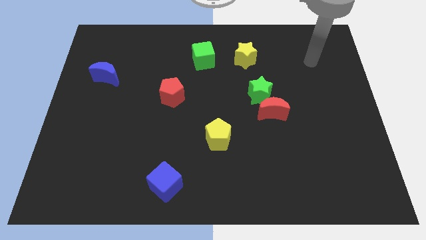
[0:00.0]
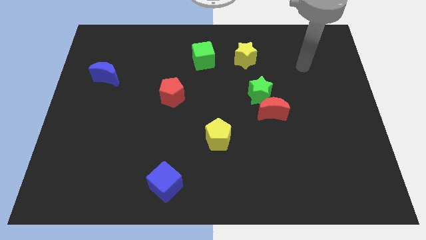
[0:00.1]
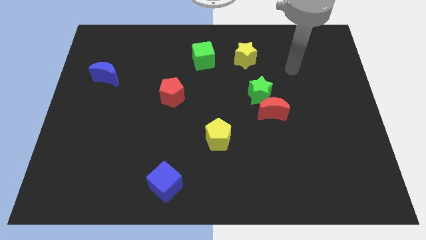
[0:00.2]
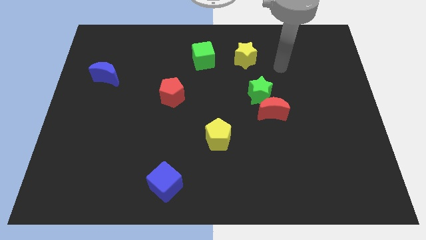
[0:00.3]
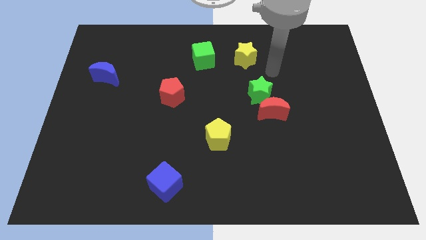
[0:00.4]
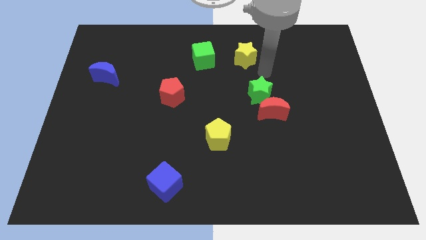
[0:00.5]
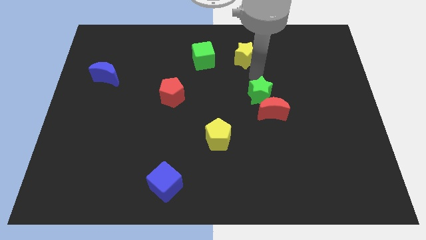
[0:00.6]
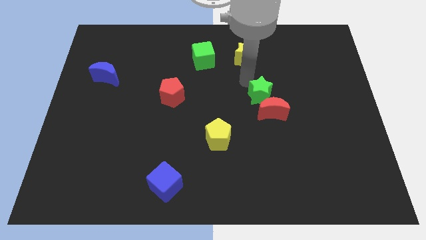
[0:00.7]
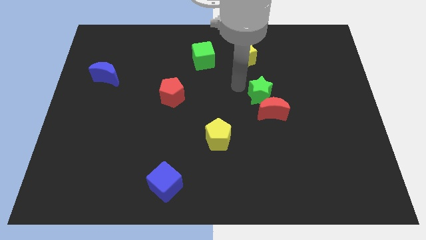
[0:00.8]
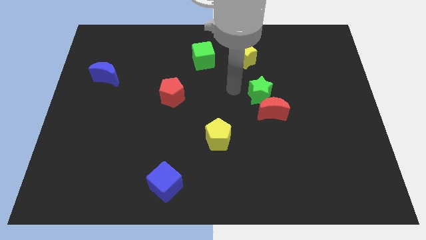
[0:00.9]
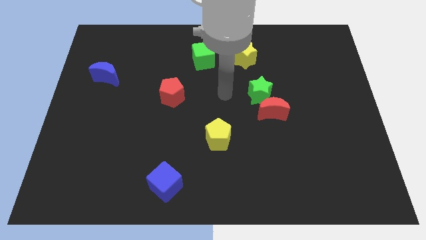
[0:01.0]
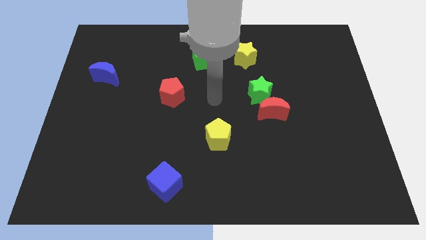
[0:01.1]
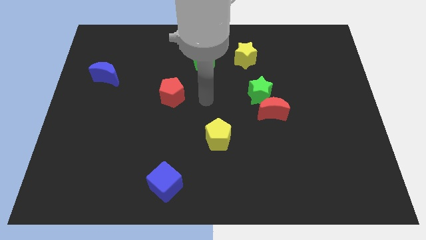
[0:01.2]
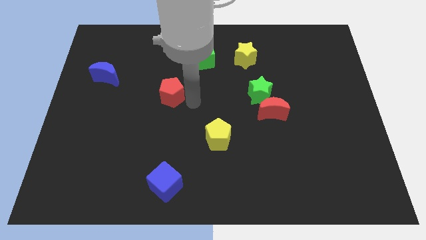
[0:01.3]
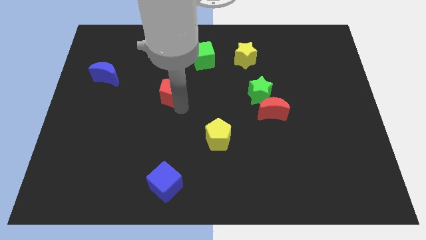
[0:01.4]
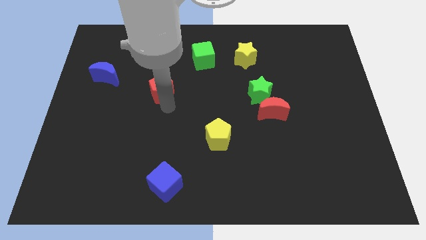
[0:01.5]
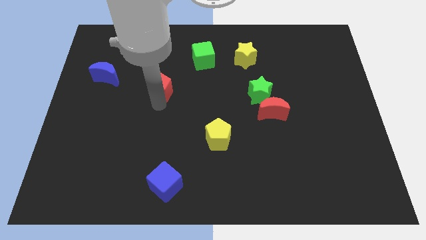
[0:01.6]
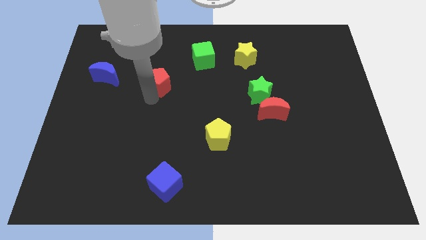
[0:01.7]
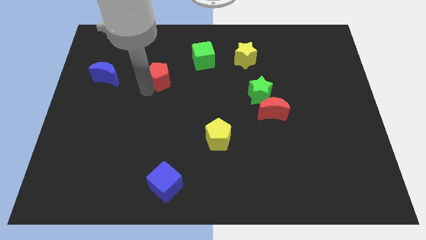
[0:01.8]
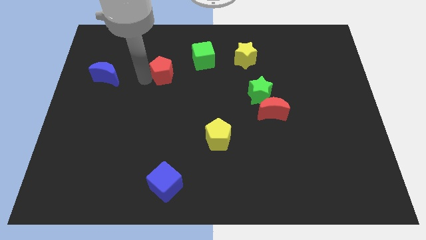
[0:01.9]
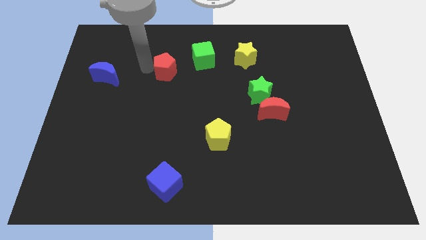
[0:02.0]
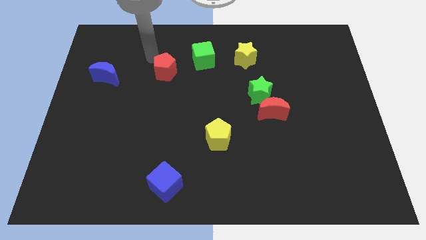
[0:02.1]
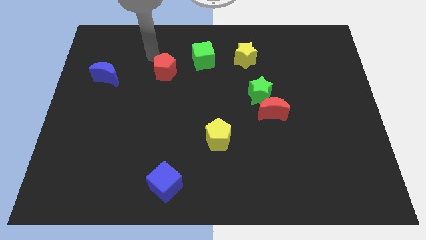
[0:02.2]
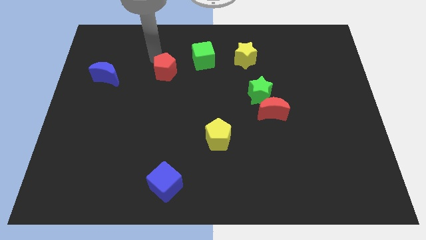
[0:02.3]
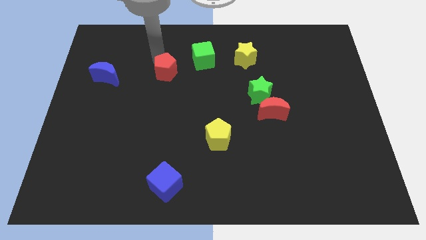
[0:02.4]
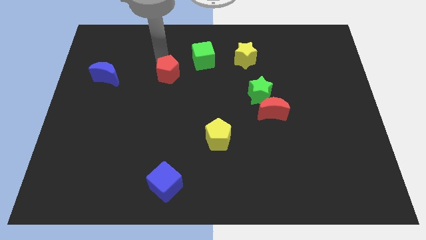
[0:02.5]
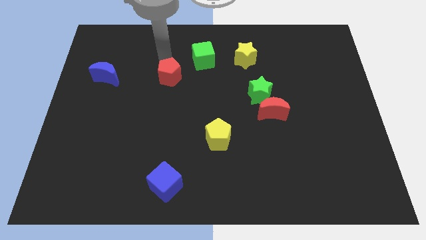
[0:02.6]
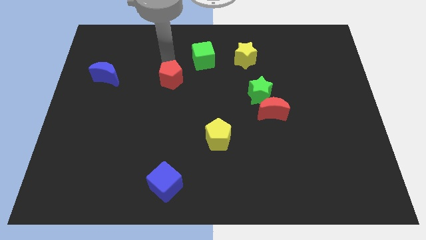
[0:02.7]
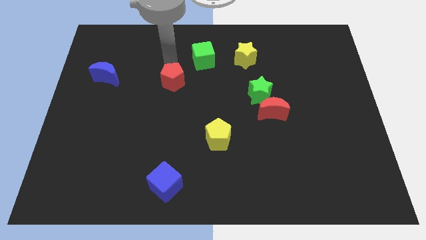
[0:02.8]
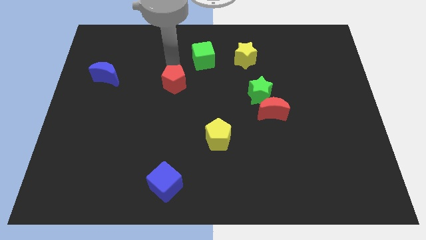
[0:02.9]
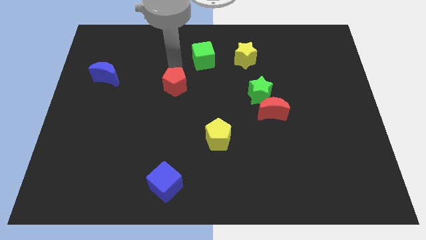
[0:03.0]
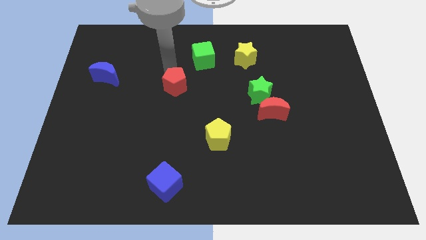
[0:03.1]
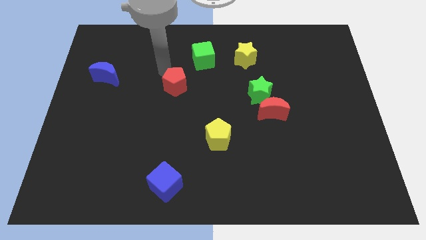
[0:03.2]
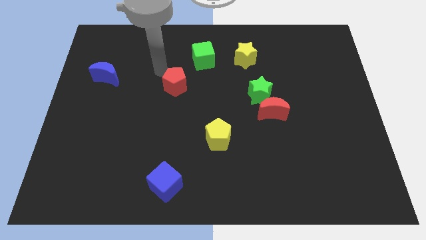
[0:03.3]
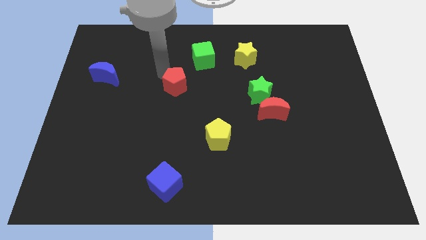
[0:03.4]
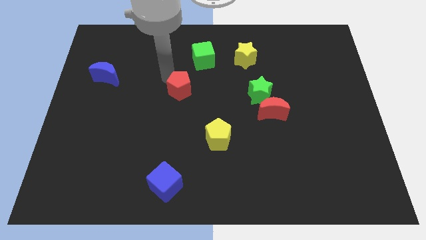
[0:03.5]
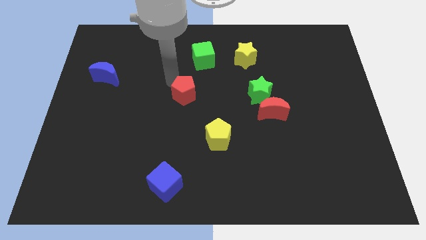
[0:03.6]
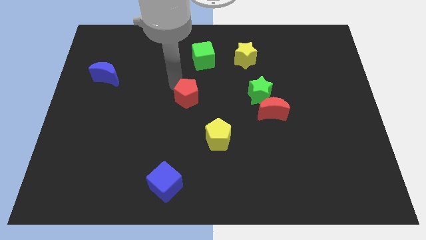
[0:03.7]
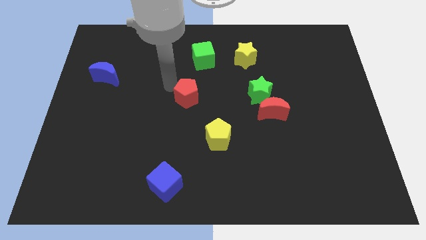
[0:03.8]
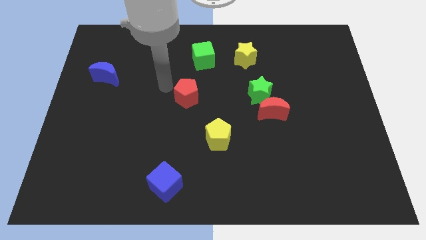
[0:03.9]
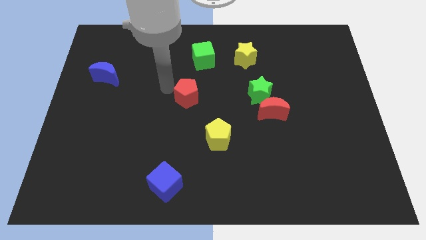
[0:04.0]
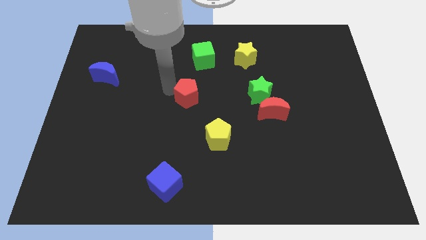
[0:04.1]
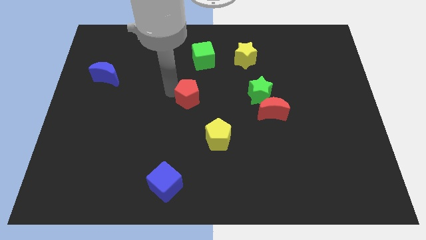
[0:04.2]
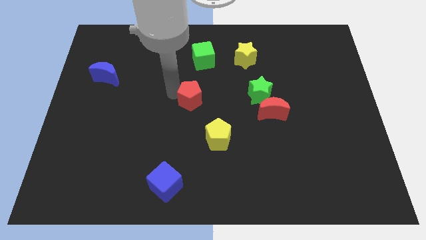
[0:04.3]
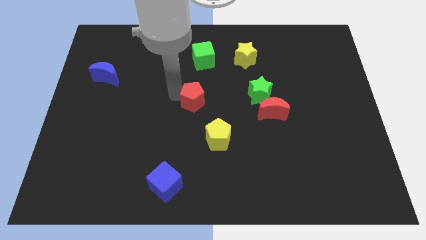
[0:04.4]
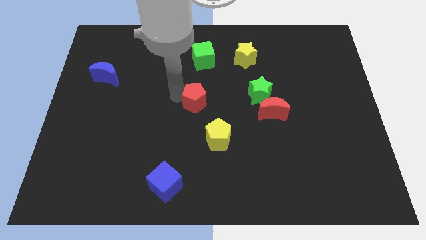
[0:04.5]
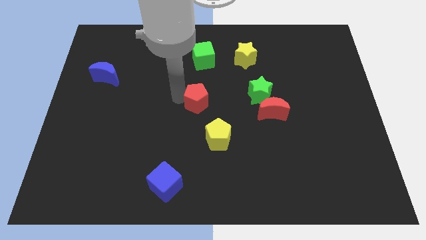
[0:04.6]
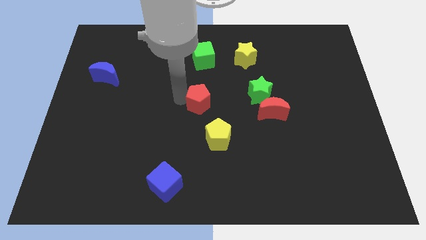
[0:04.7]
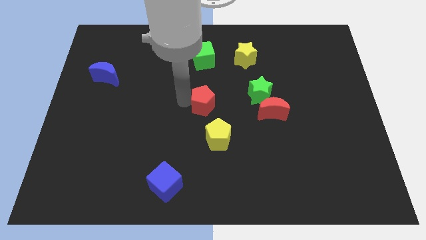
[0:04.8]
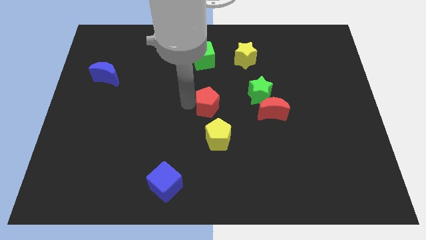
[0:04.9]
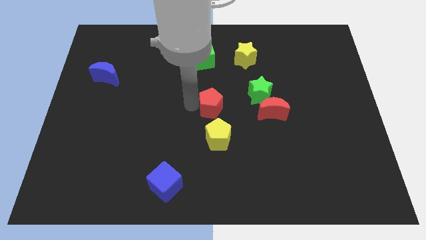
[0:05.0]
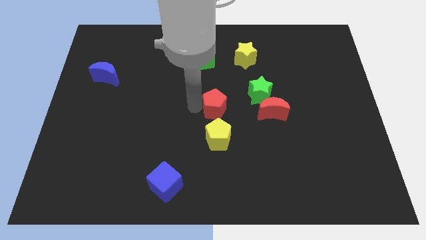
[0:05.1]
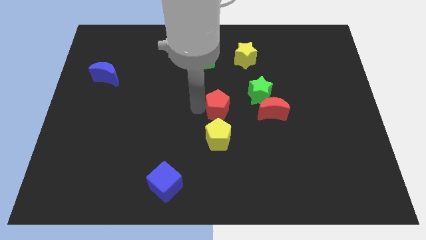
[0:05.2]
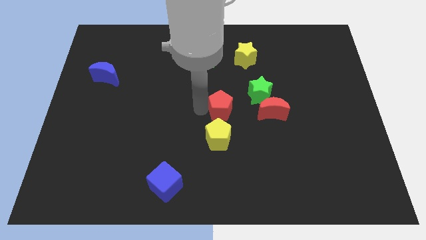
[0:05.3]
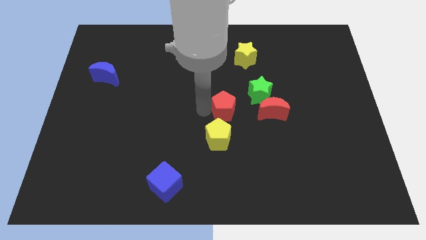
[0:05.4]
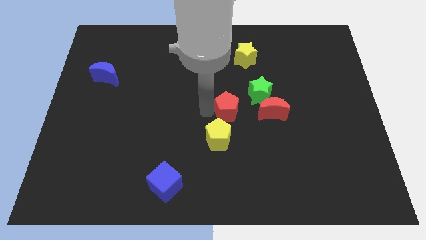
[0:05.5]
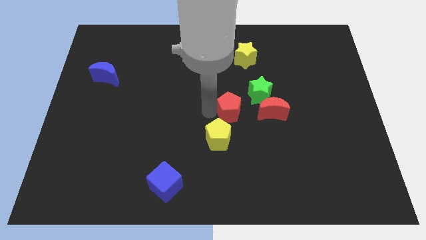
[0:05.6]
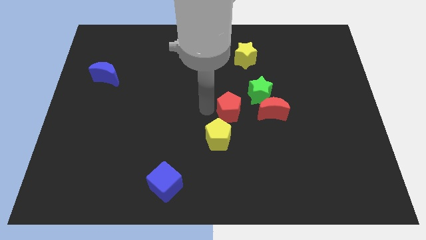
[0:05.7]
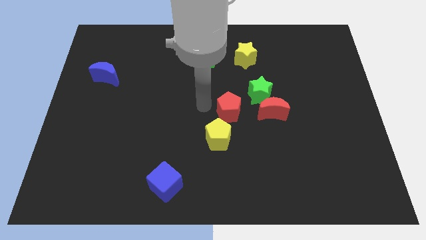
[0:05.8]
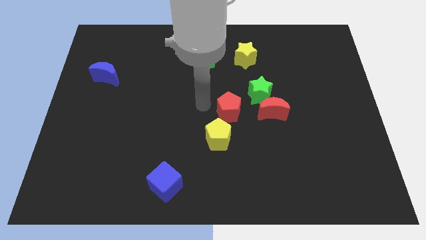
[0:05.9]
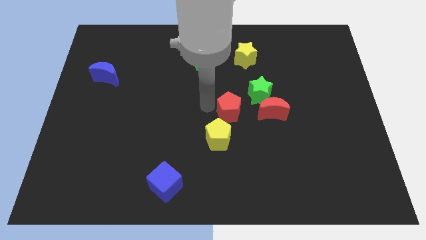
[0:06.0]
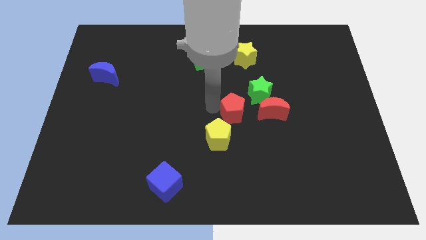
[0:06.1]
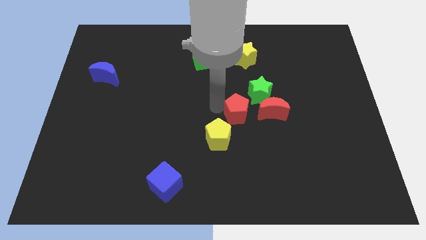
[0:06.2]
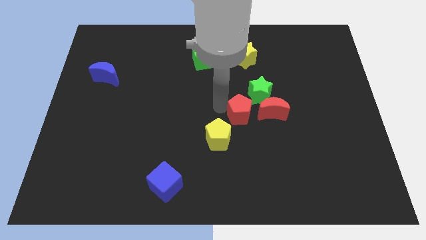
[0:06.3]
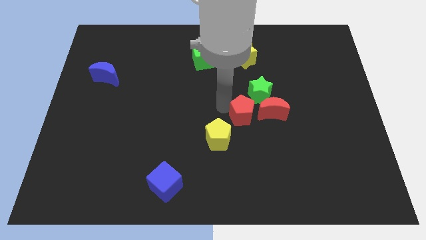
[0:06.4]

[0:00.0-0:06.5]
move the red pentagon below the green star

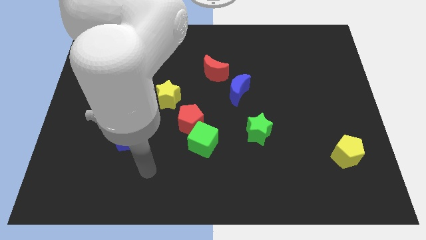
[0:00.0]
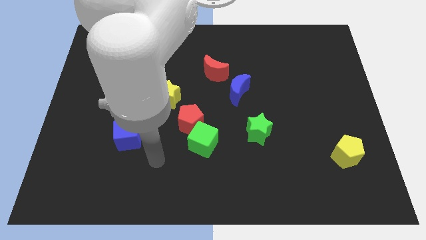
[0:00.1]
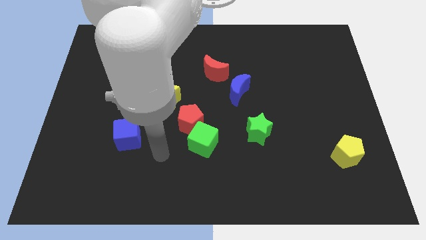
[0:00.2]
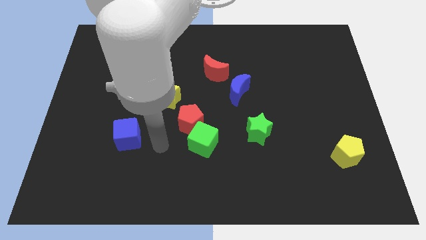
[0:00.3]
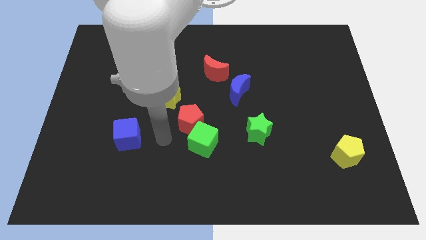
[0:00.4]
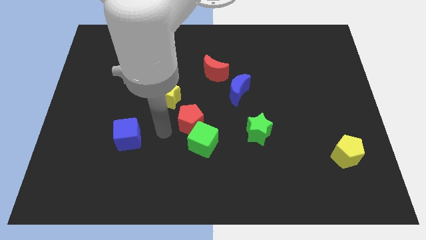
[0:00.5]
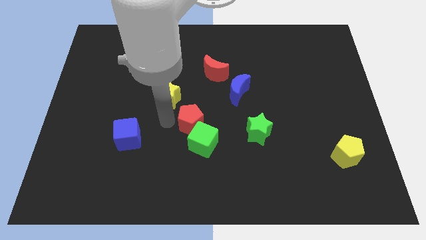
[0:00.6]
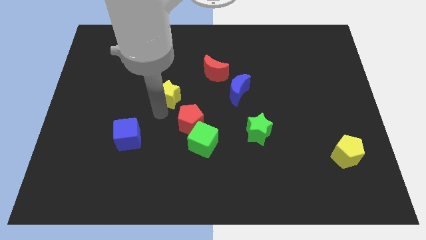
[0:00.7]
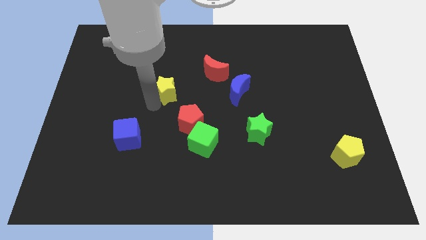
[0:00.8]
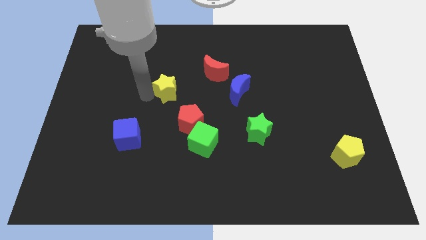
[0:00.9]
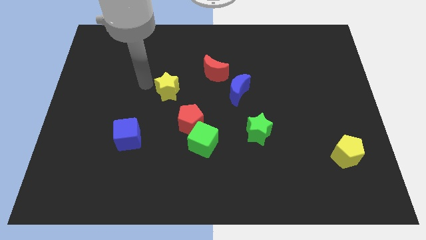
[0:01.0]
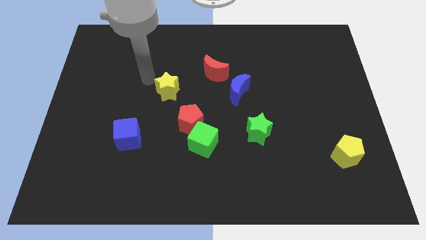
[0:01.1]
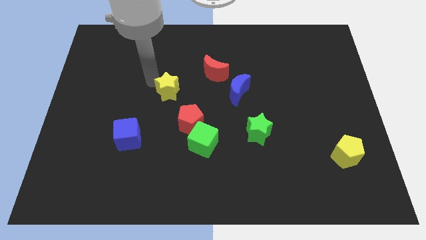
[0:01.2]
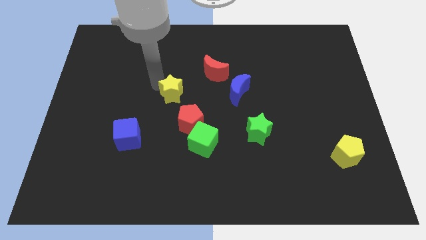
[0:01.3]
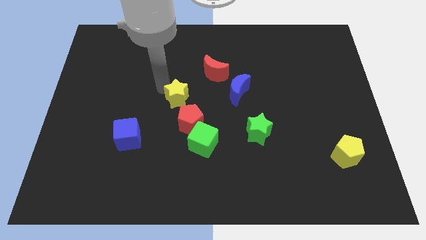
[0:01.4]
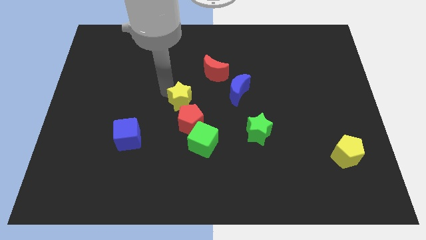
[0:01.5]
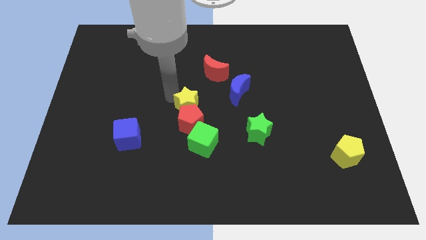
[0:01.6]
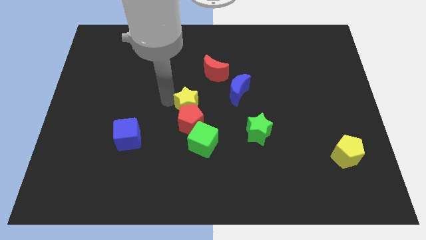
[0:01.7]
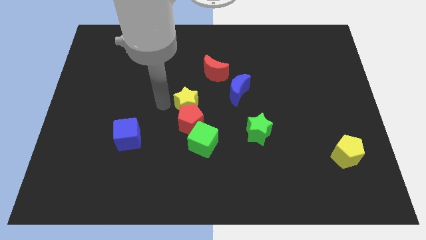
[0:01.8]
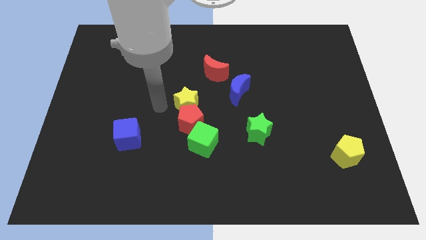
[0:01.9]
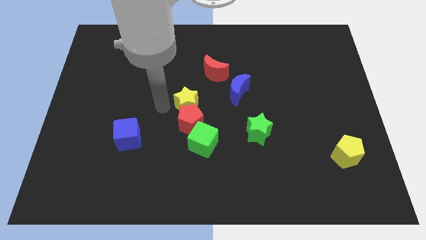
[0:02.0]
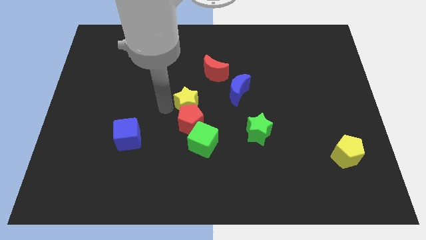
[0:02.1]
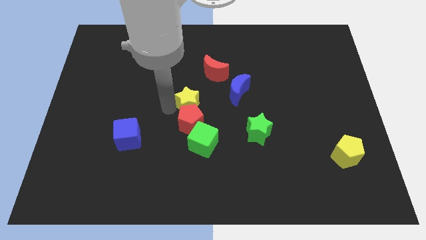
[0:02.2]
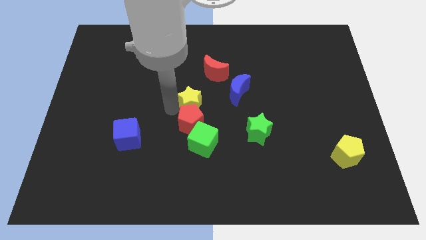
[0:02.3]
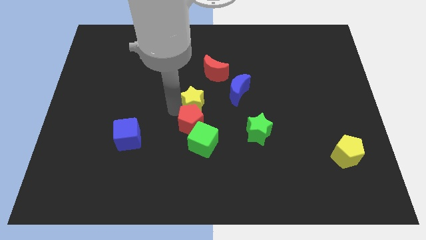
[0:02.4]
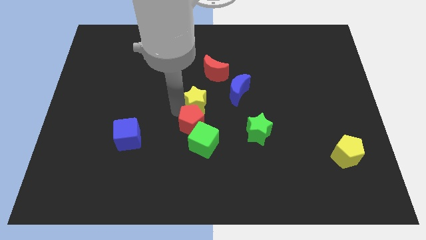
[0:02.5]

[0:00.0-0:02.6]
put the yellow star to the bottom of the red moon
